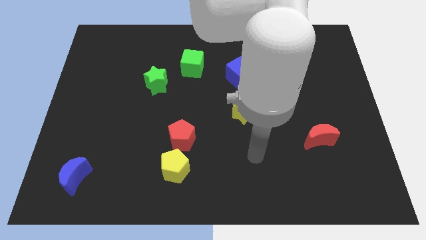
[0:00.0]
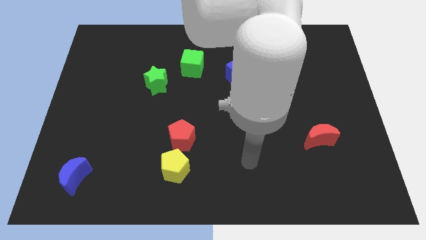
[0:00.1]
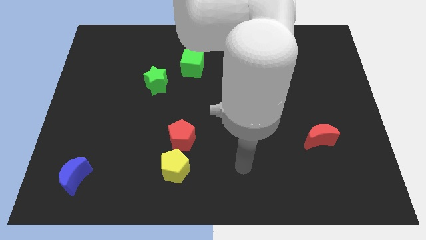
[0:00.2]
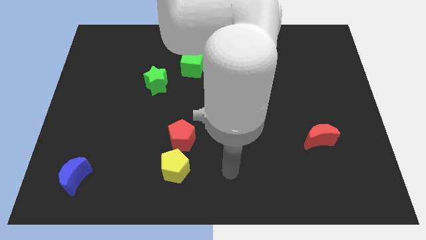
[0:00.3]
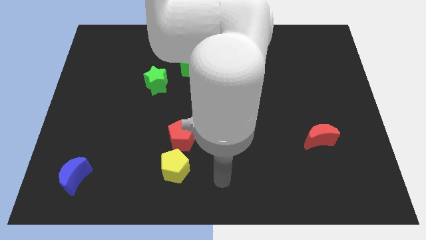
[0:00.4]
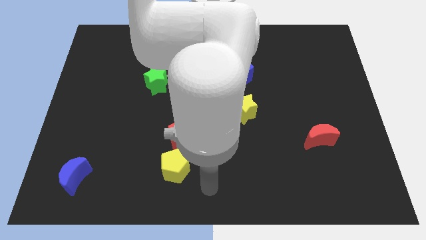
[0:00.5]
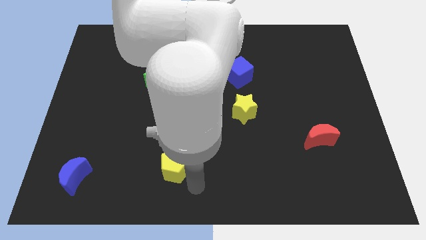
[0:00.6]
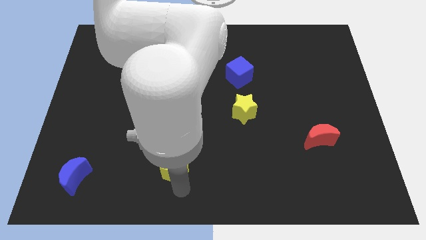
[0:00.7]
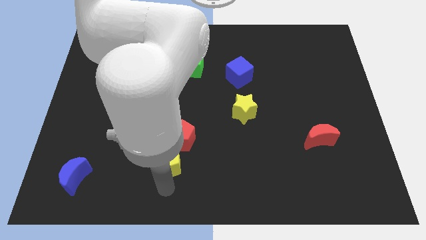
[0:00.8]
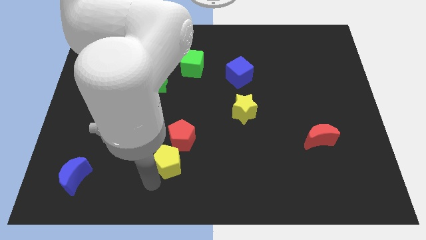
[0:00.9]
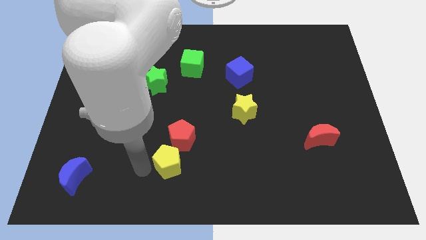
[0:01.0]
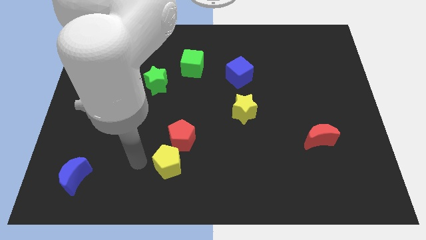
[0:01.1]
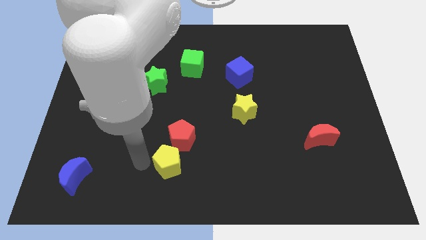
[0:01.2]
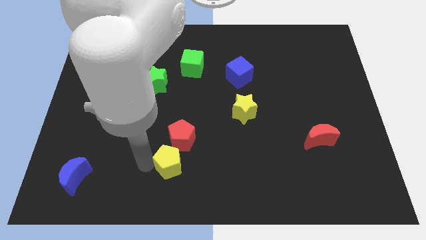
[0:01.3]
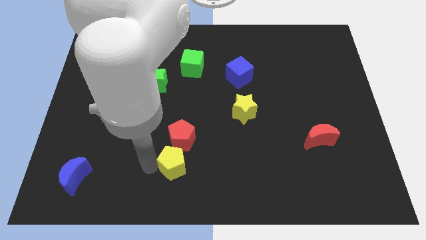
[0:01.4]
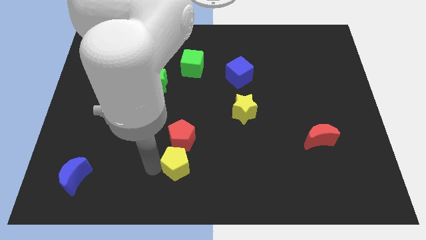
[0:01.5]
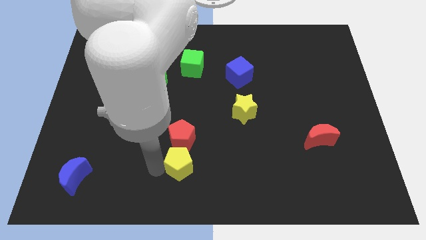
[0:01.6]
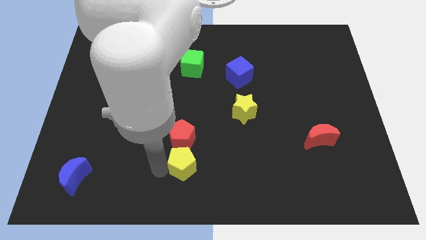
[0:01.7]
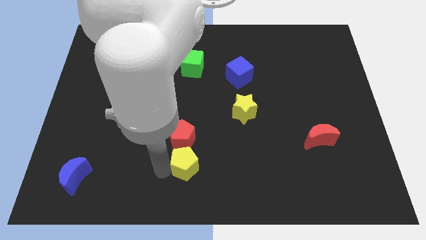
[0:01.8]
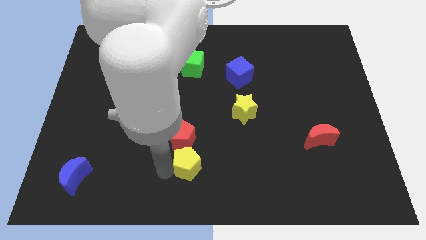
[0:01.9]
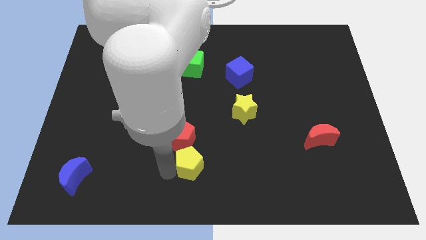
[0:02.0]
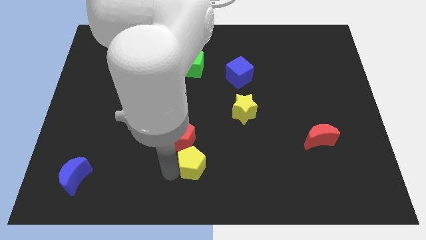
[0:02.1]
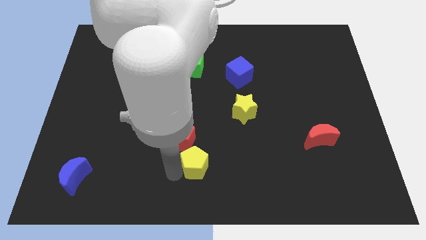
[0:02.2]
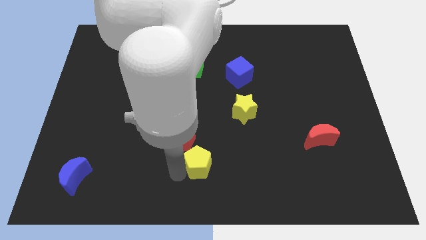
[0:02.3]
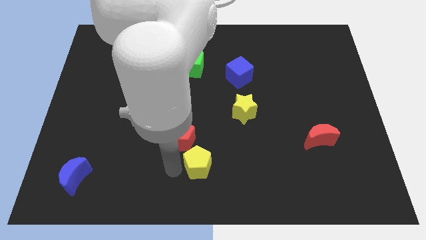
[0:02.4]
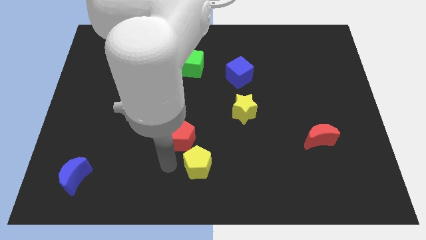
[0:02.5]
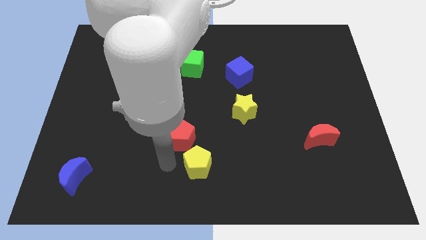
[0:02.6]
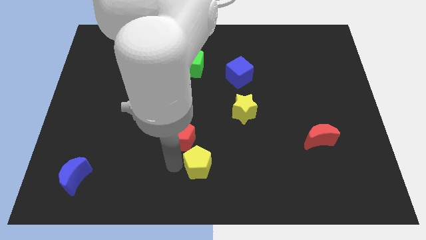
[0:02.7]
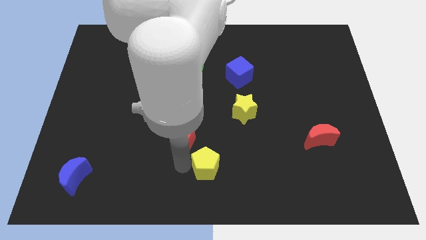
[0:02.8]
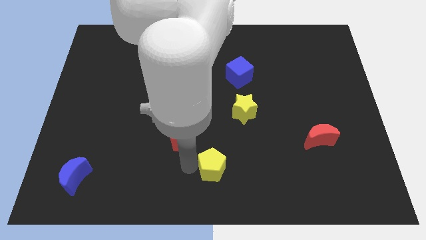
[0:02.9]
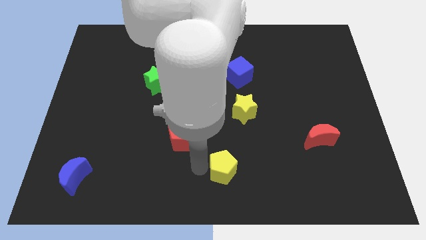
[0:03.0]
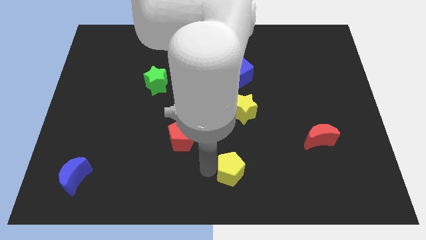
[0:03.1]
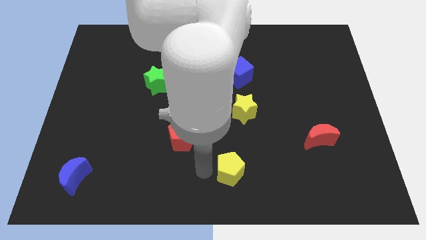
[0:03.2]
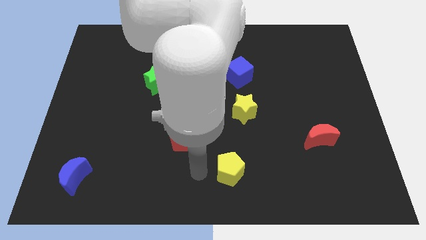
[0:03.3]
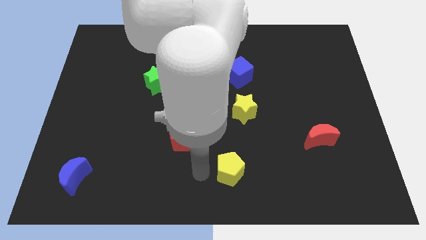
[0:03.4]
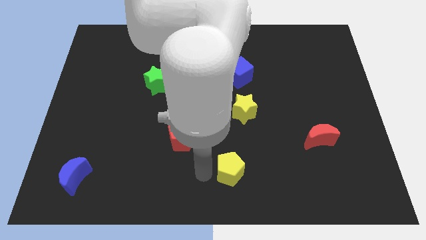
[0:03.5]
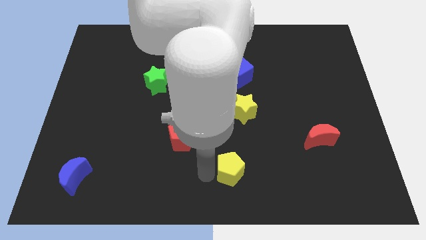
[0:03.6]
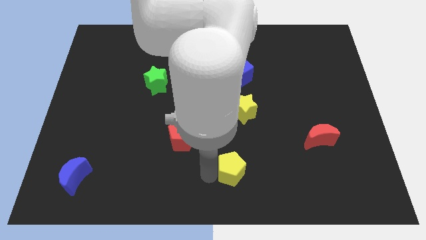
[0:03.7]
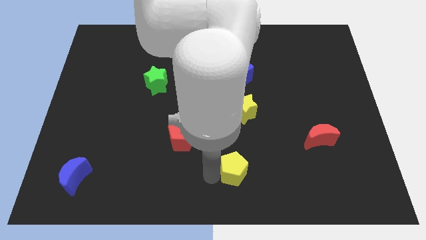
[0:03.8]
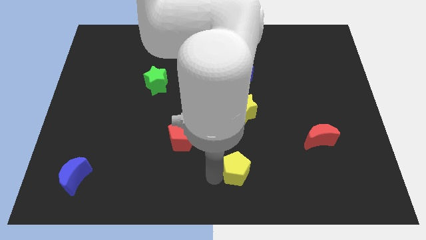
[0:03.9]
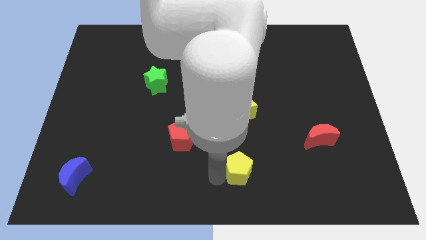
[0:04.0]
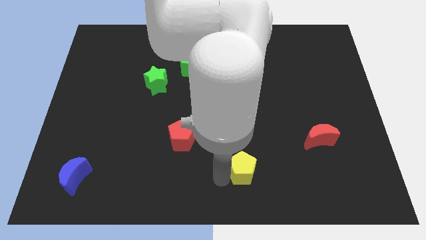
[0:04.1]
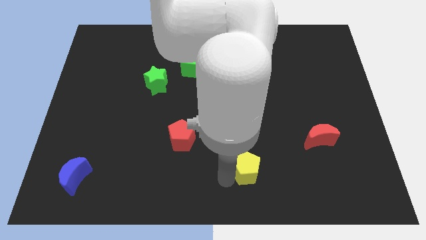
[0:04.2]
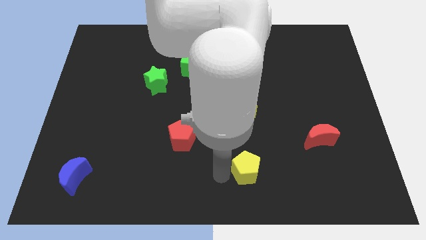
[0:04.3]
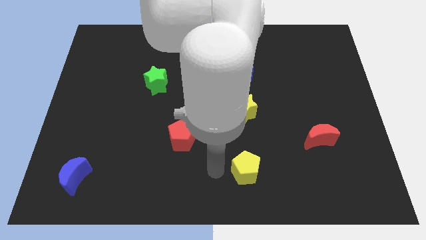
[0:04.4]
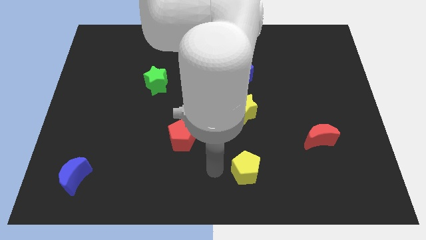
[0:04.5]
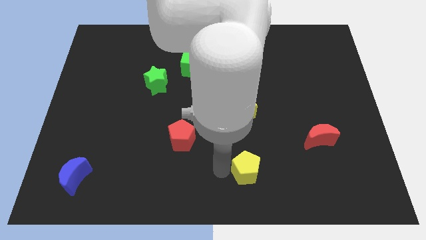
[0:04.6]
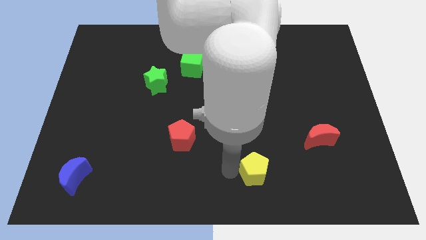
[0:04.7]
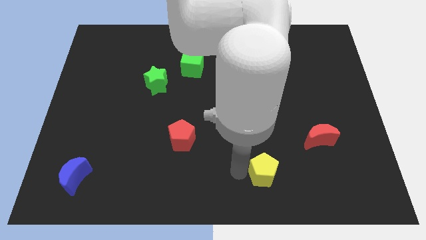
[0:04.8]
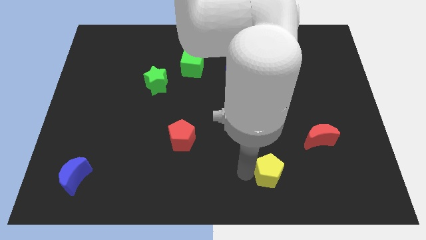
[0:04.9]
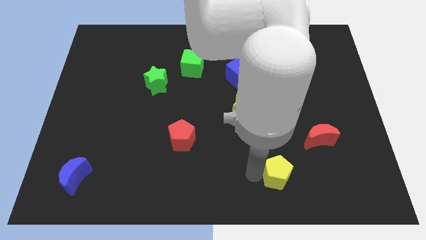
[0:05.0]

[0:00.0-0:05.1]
push the yellow pentagon right

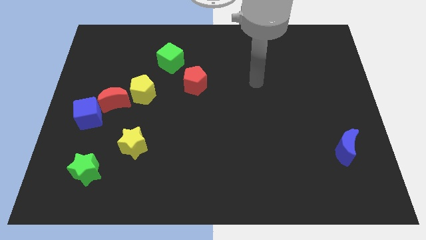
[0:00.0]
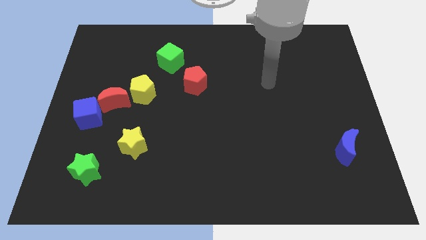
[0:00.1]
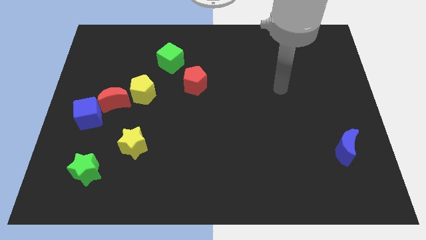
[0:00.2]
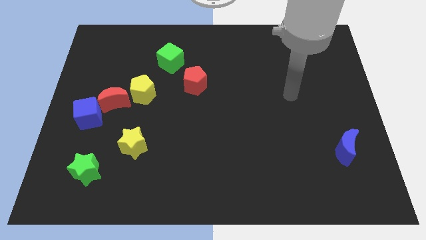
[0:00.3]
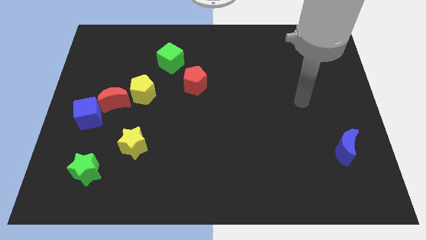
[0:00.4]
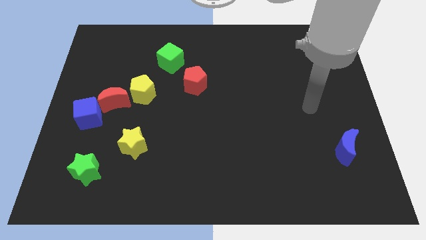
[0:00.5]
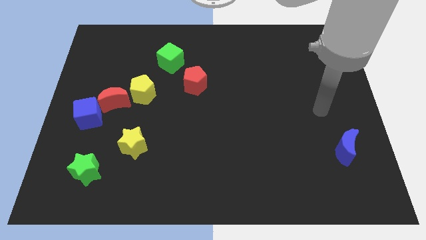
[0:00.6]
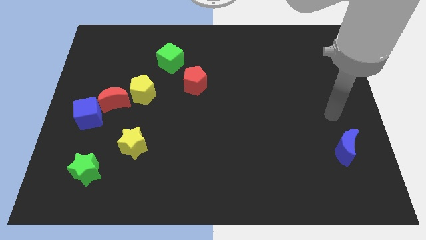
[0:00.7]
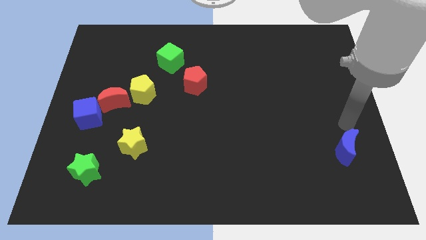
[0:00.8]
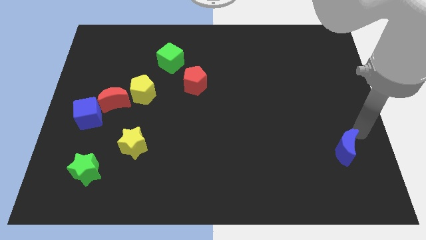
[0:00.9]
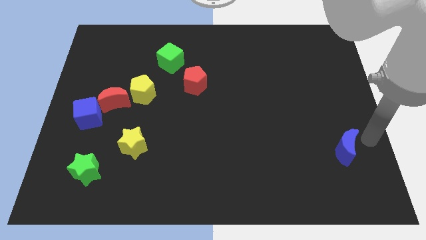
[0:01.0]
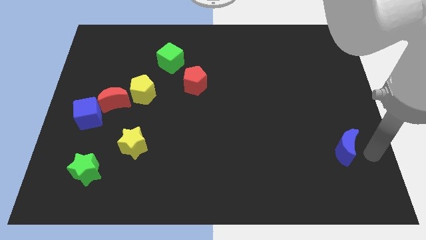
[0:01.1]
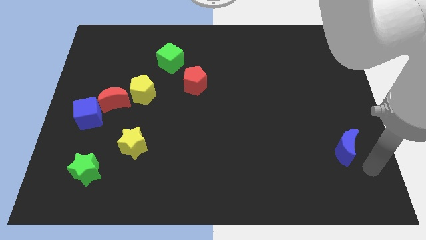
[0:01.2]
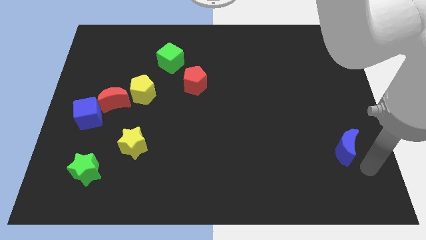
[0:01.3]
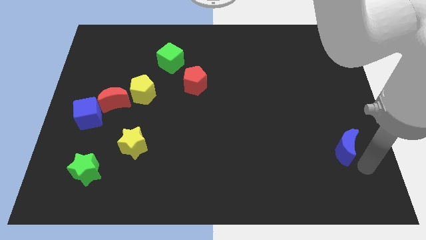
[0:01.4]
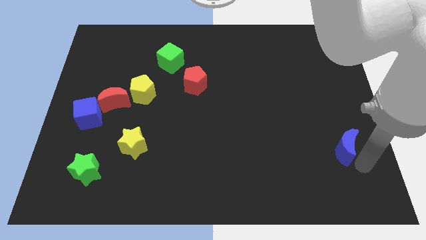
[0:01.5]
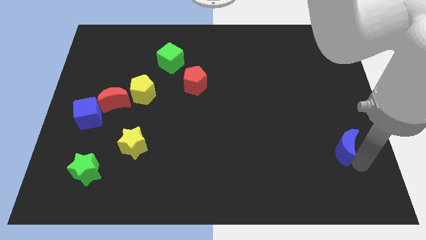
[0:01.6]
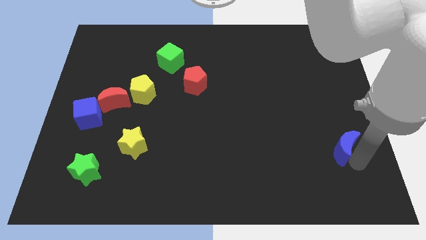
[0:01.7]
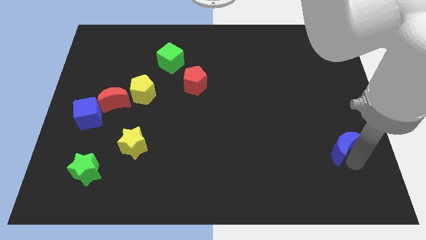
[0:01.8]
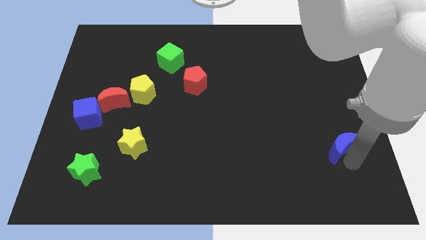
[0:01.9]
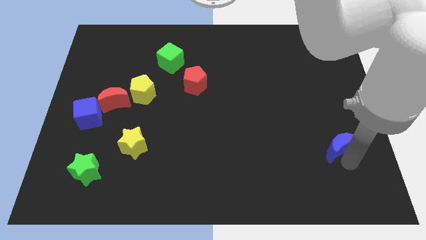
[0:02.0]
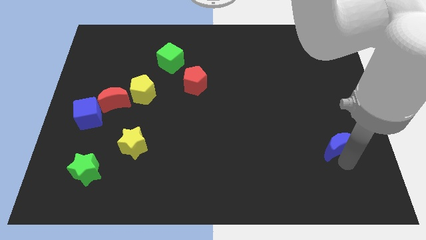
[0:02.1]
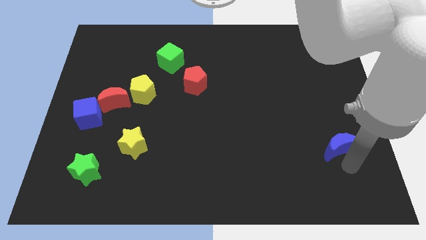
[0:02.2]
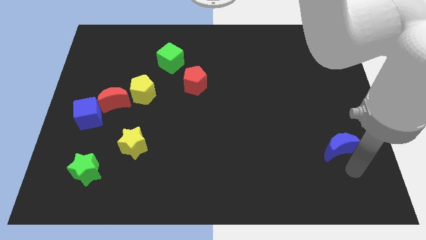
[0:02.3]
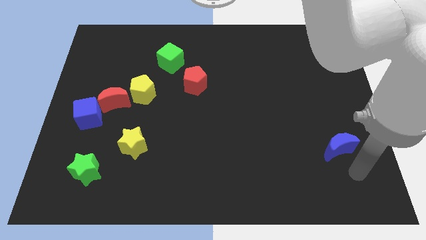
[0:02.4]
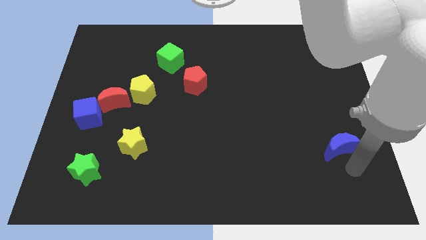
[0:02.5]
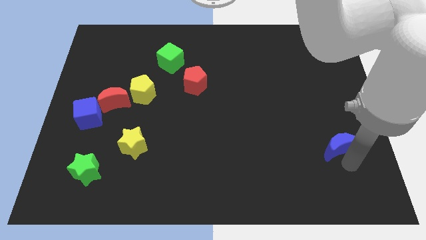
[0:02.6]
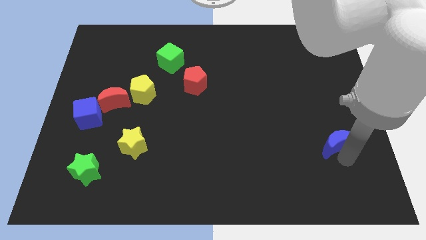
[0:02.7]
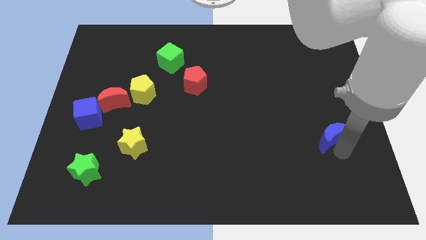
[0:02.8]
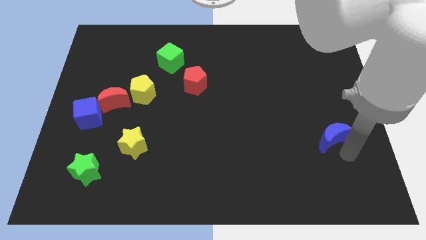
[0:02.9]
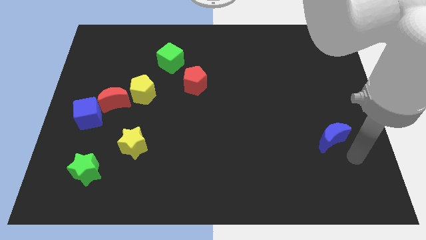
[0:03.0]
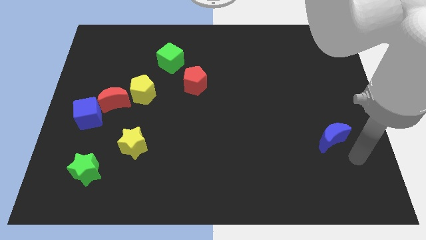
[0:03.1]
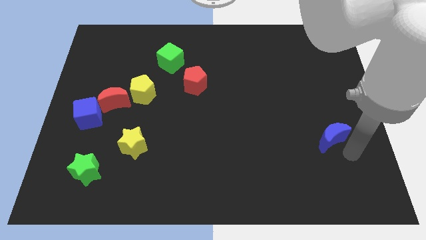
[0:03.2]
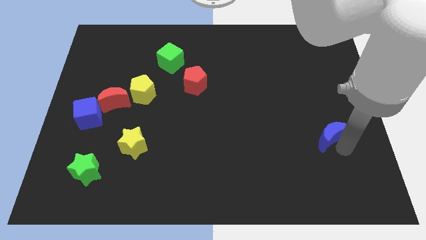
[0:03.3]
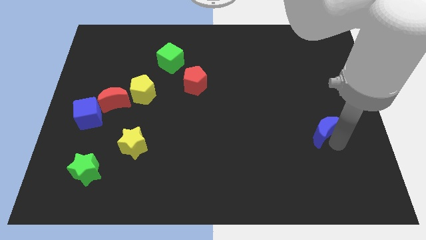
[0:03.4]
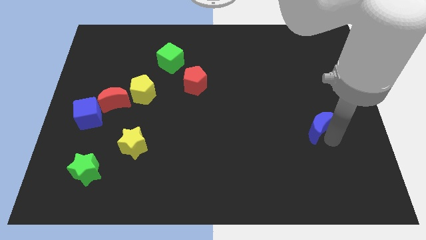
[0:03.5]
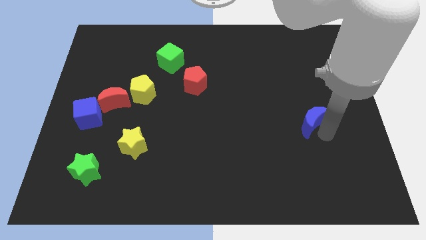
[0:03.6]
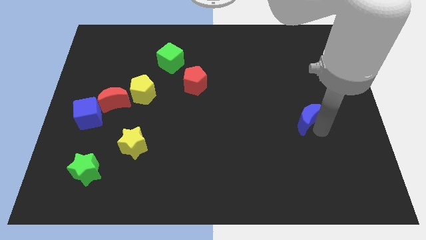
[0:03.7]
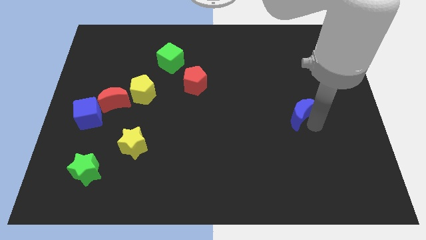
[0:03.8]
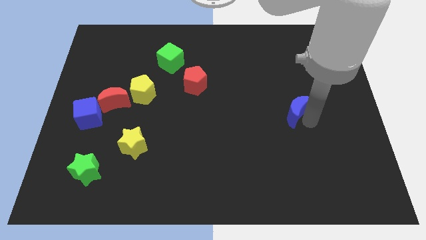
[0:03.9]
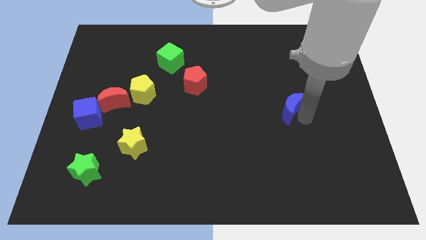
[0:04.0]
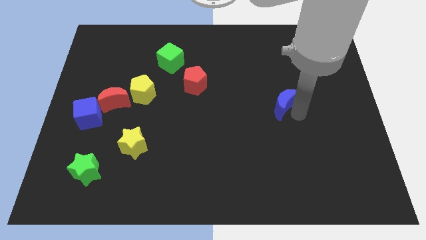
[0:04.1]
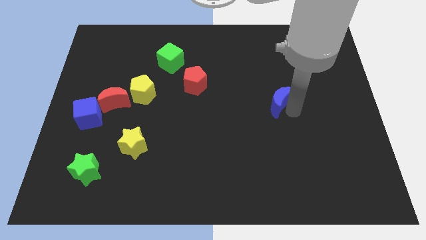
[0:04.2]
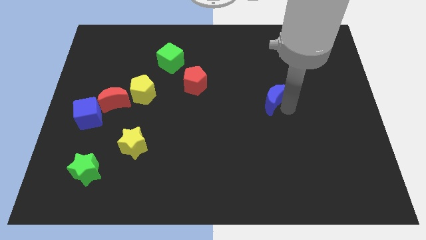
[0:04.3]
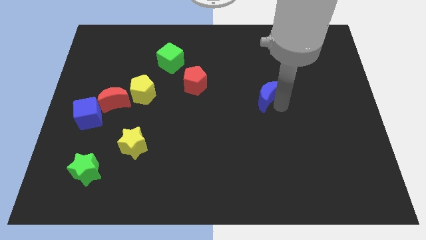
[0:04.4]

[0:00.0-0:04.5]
push the blue moon diagonally up and to the left
